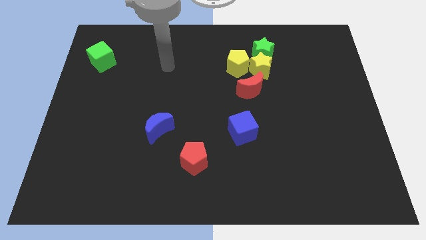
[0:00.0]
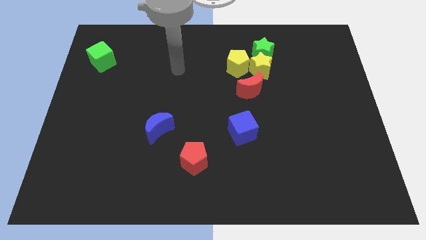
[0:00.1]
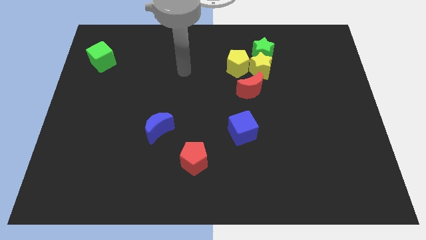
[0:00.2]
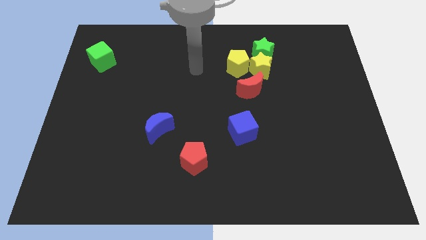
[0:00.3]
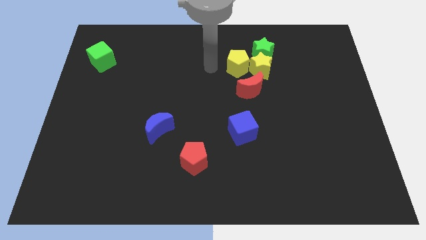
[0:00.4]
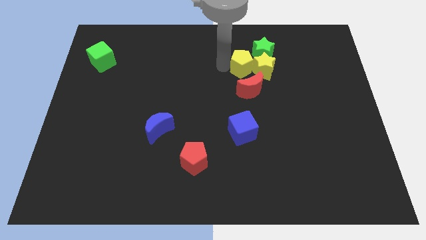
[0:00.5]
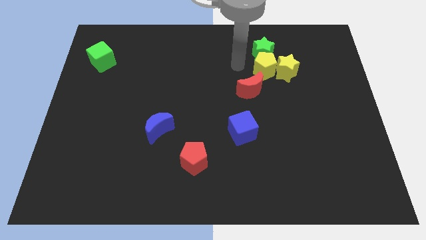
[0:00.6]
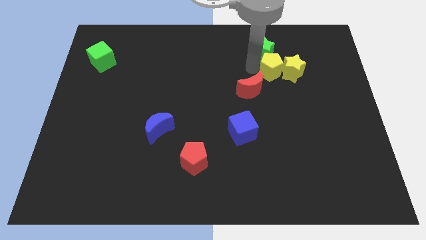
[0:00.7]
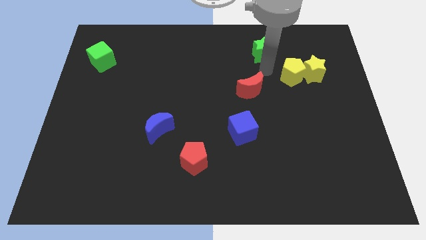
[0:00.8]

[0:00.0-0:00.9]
move the yellow star away from the green star, yellow pentagon, and red moon

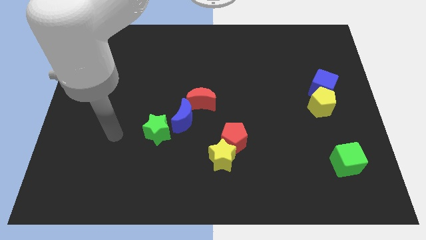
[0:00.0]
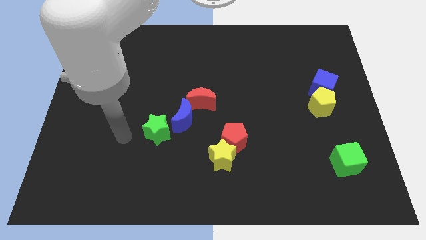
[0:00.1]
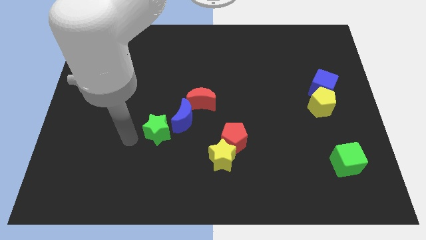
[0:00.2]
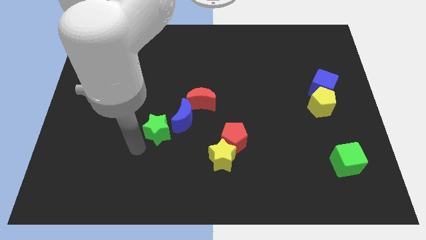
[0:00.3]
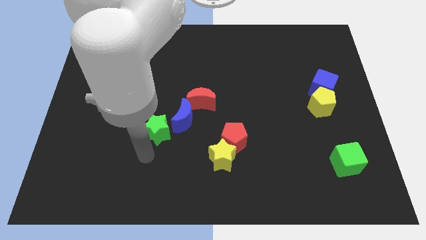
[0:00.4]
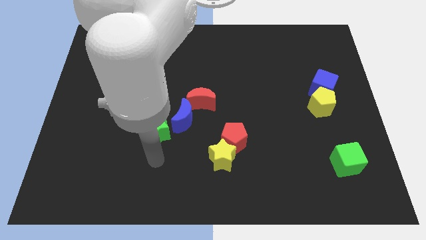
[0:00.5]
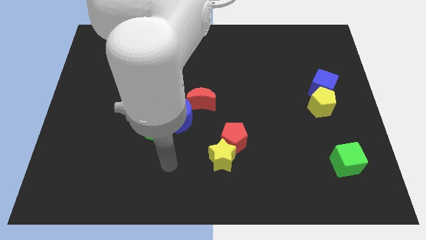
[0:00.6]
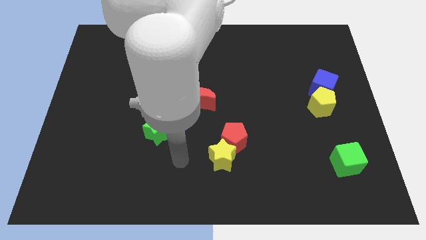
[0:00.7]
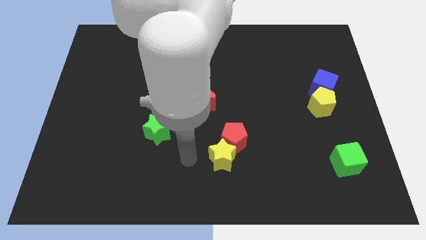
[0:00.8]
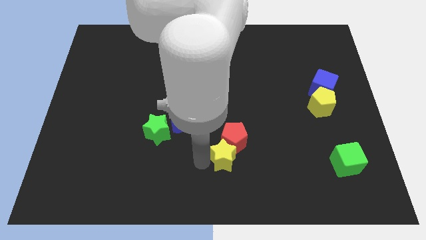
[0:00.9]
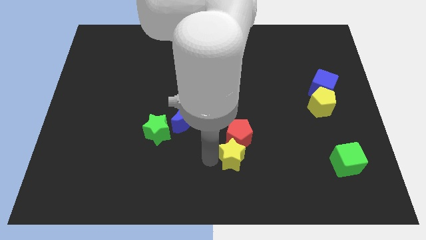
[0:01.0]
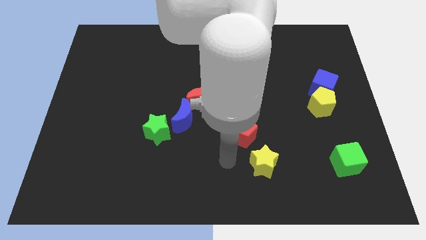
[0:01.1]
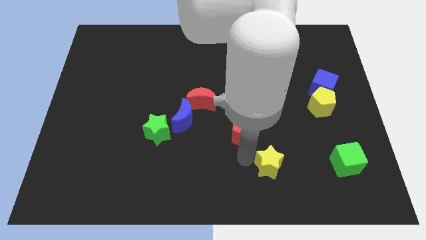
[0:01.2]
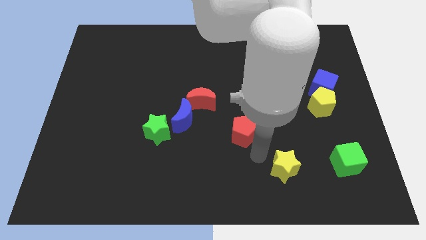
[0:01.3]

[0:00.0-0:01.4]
separate the red pentagon from the yellow star

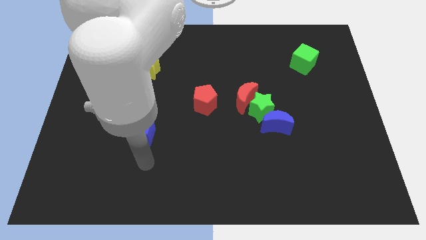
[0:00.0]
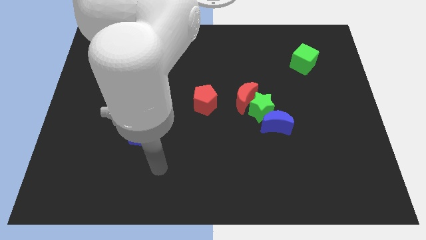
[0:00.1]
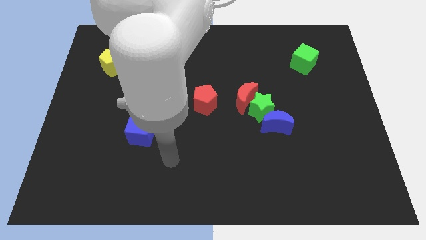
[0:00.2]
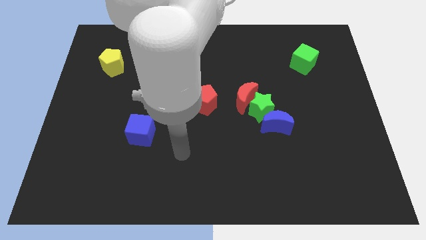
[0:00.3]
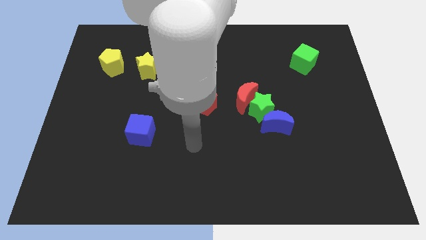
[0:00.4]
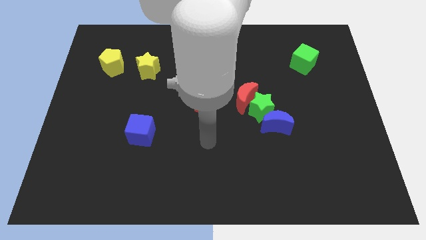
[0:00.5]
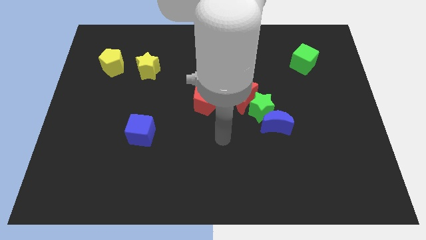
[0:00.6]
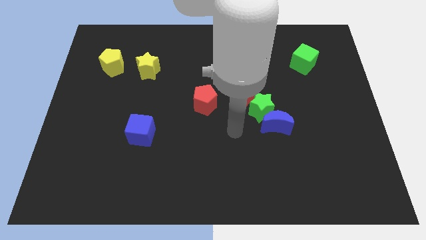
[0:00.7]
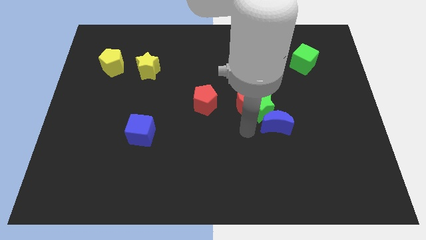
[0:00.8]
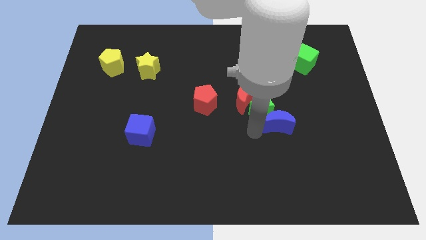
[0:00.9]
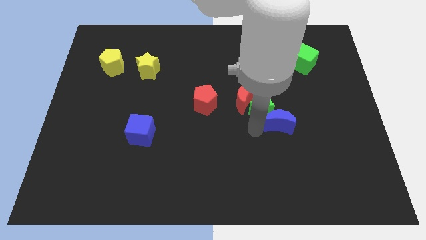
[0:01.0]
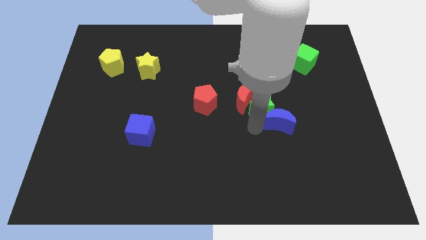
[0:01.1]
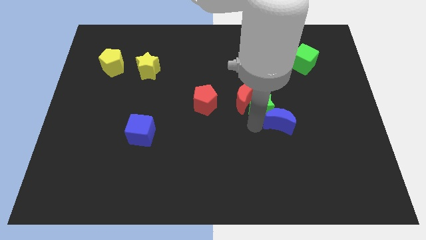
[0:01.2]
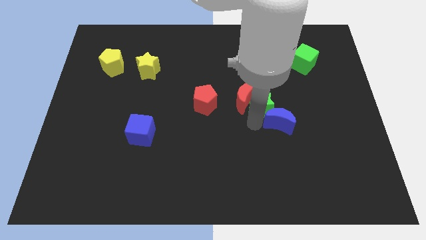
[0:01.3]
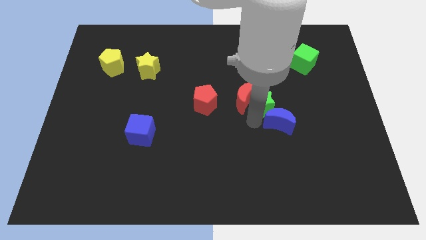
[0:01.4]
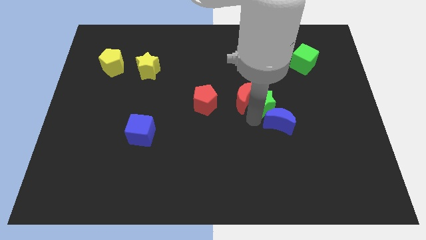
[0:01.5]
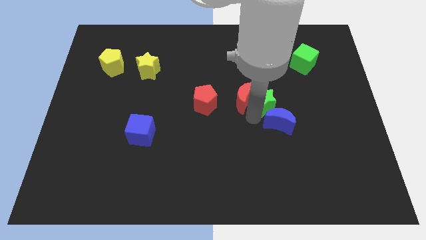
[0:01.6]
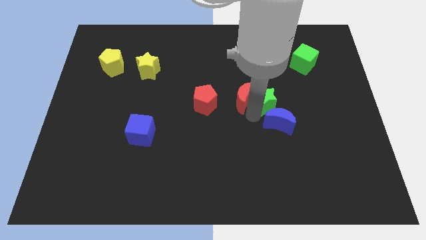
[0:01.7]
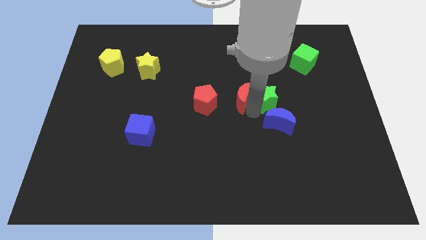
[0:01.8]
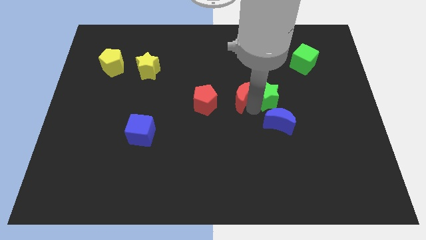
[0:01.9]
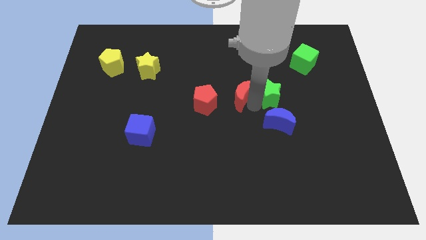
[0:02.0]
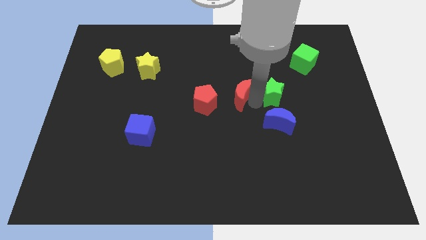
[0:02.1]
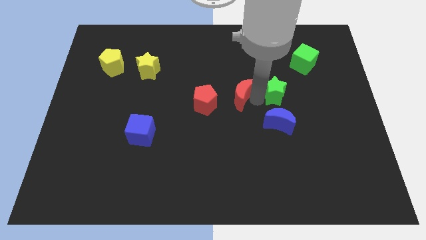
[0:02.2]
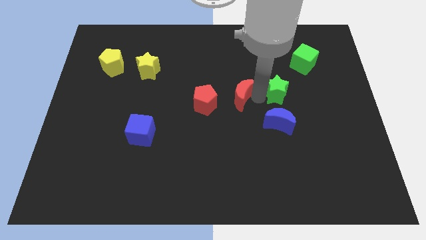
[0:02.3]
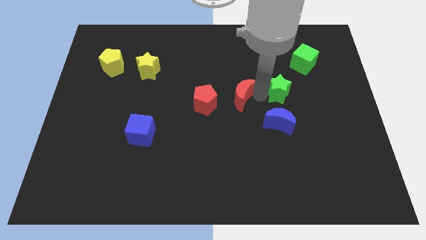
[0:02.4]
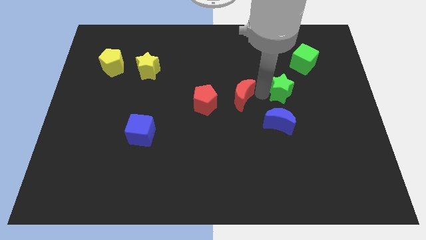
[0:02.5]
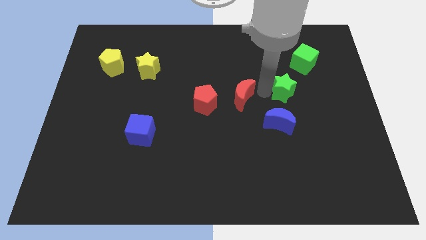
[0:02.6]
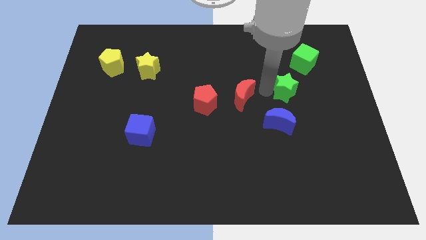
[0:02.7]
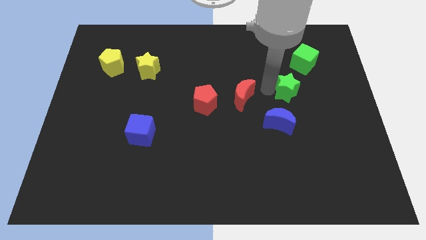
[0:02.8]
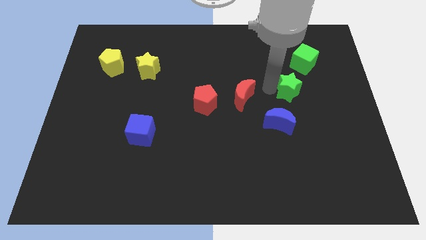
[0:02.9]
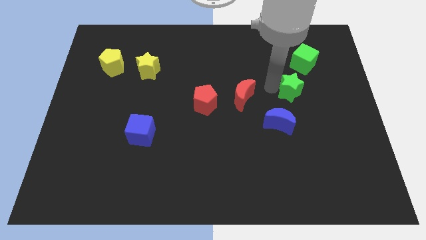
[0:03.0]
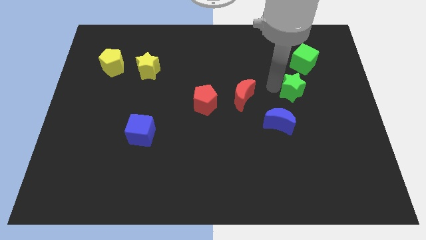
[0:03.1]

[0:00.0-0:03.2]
pull the green star apart from the red moon and blue moon

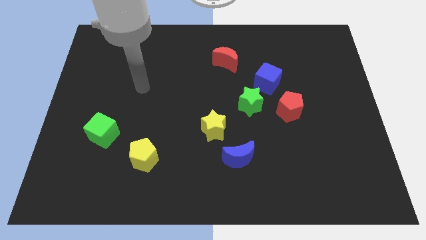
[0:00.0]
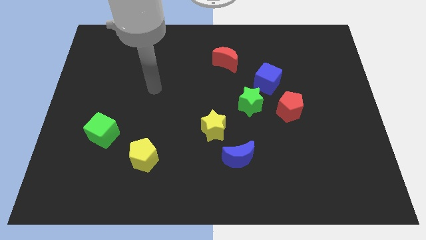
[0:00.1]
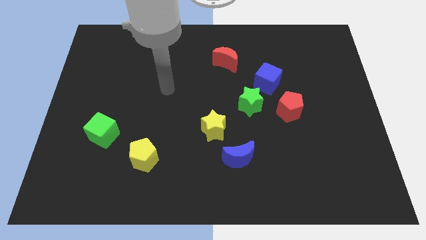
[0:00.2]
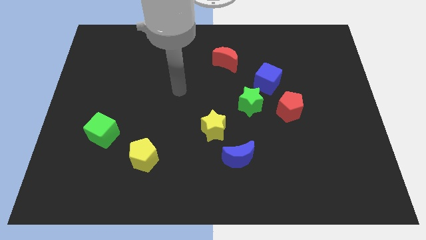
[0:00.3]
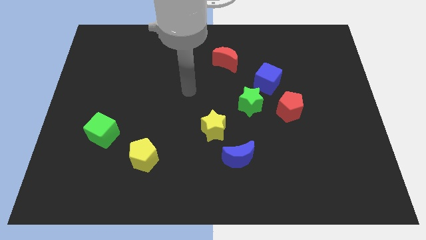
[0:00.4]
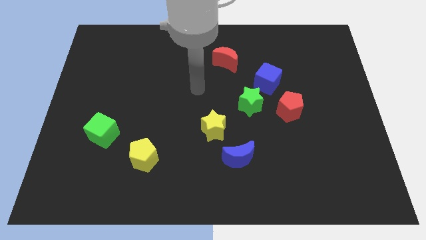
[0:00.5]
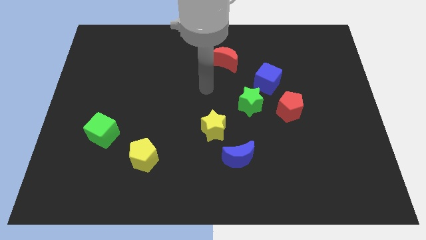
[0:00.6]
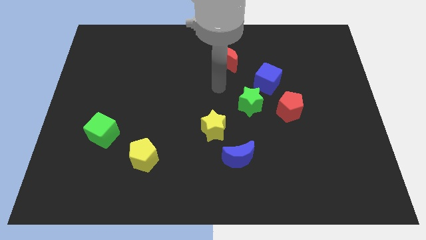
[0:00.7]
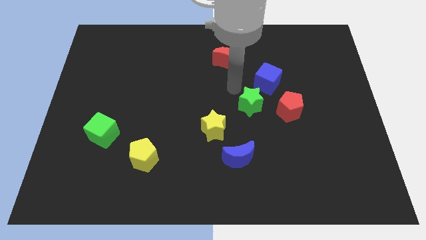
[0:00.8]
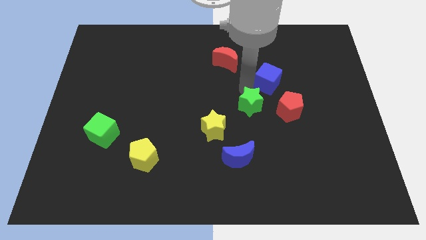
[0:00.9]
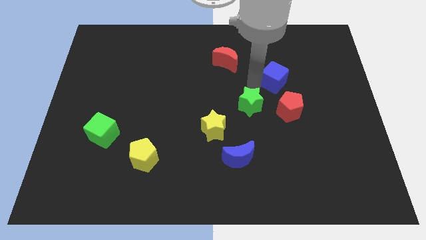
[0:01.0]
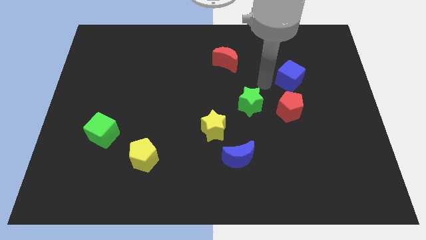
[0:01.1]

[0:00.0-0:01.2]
move the green star away from the blue cube and red pentagon

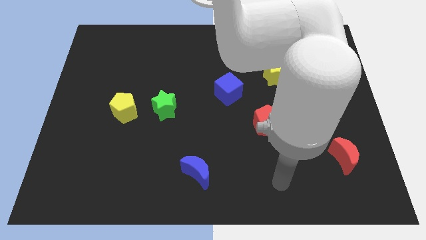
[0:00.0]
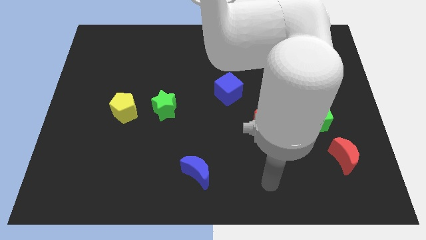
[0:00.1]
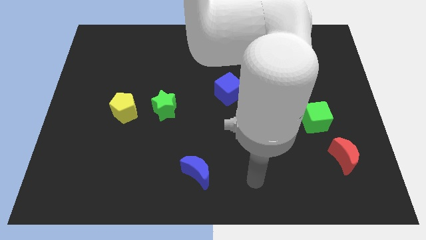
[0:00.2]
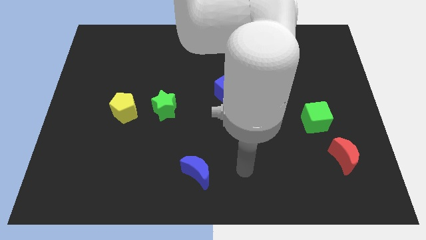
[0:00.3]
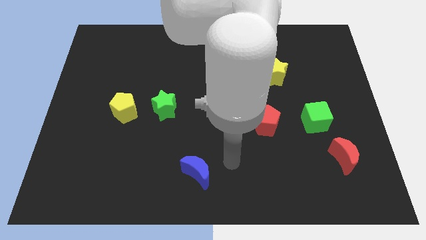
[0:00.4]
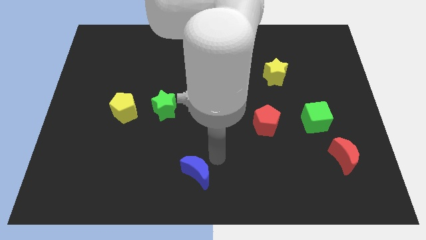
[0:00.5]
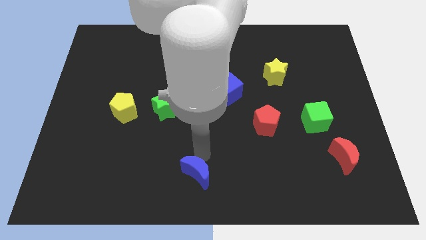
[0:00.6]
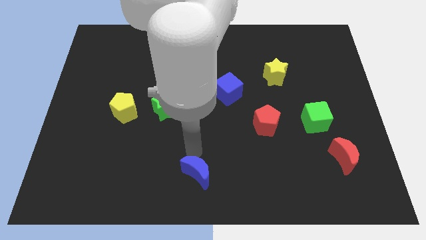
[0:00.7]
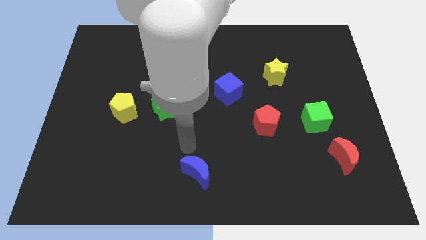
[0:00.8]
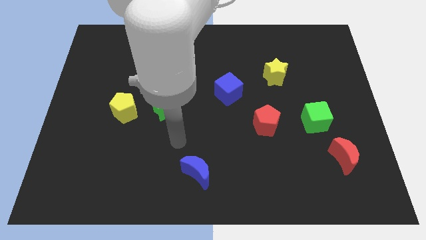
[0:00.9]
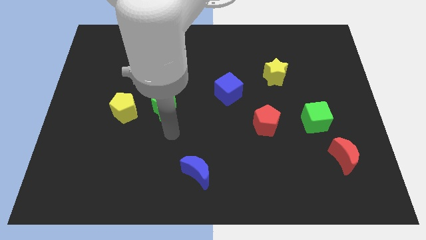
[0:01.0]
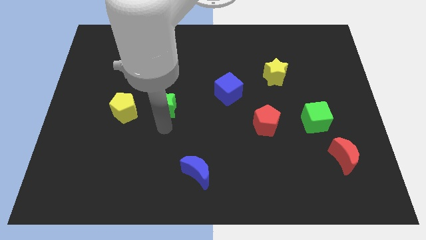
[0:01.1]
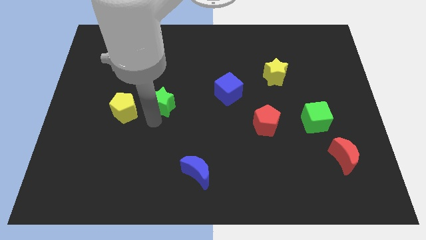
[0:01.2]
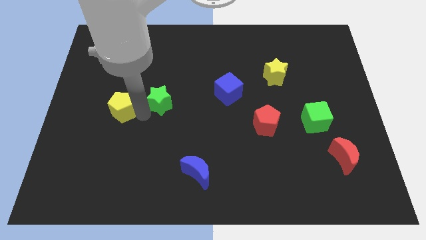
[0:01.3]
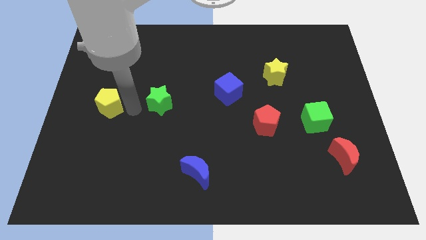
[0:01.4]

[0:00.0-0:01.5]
move the green star away from the yellow pentagon

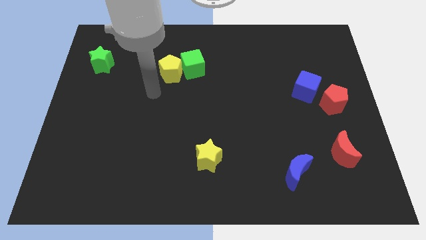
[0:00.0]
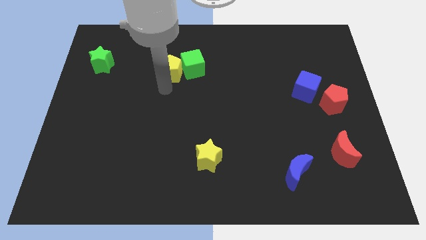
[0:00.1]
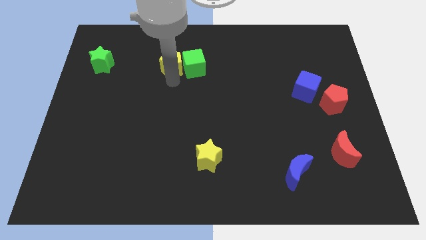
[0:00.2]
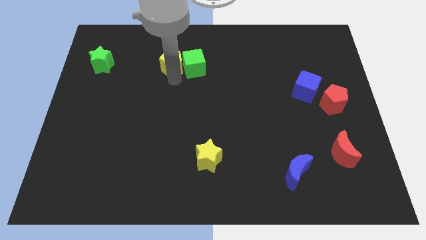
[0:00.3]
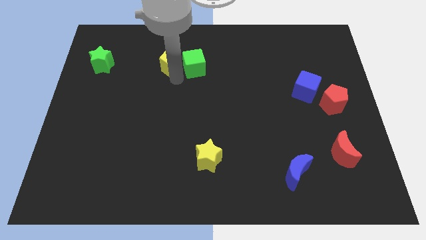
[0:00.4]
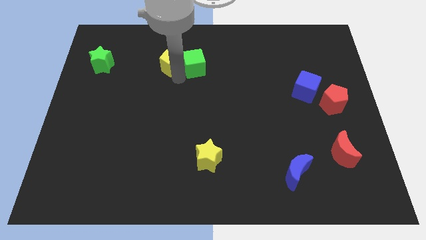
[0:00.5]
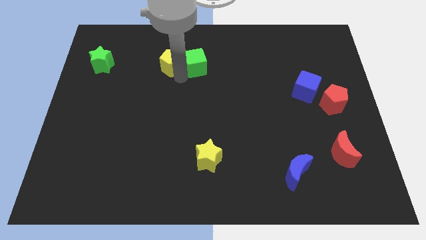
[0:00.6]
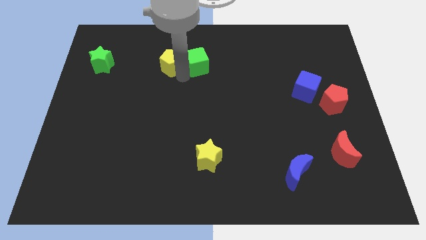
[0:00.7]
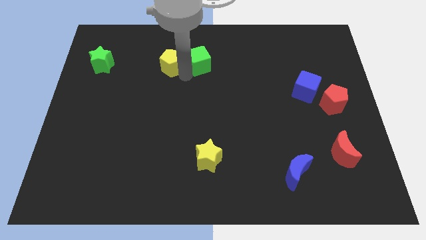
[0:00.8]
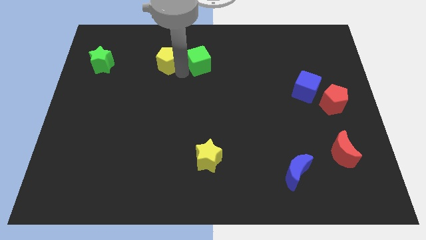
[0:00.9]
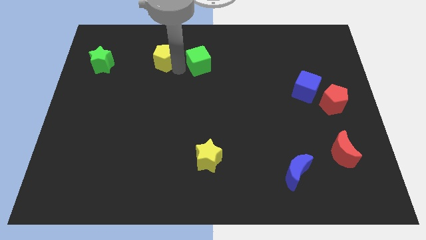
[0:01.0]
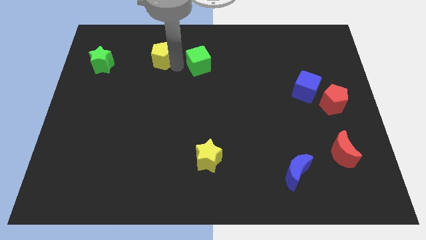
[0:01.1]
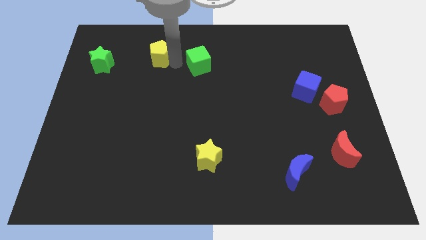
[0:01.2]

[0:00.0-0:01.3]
move the green cube away from the yellow pentagon
